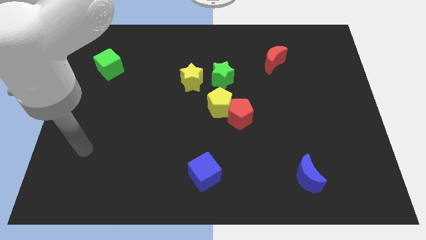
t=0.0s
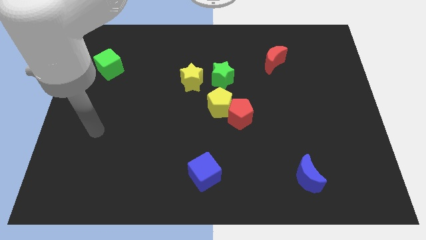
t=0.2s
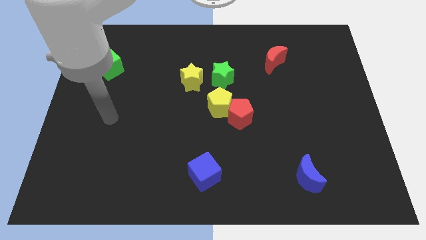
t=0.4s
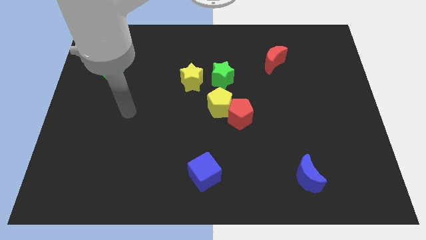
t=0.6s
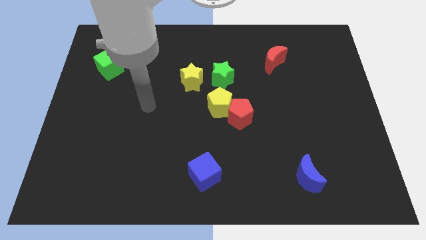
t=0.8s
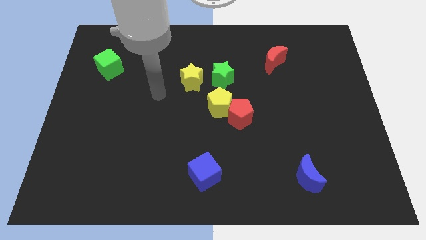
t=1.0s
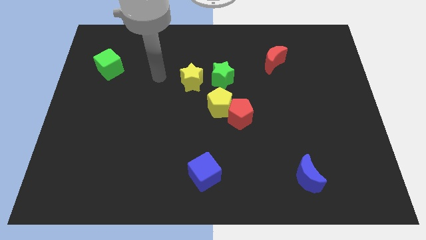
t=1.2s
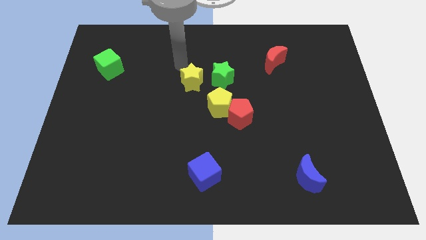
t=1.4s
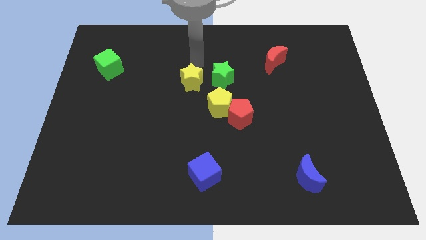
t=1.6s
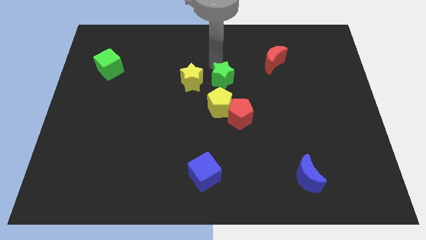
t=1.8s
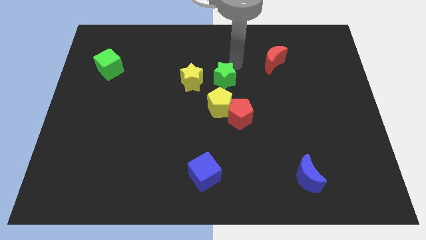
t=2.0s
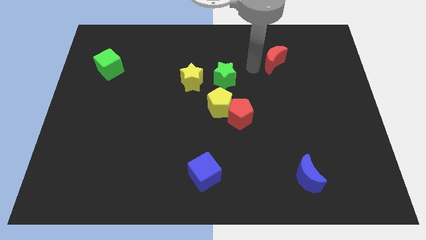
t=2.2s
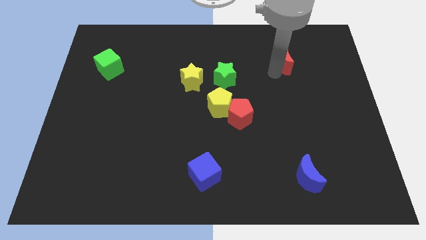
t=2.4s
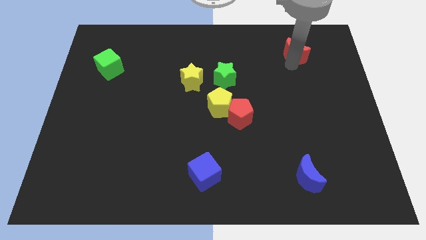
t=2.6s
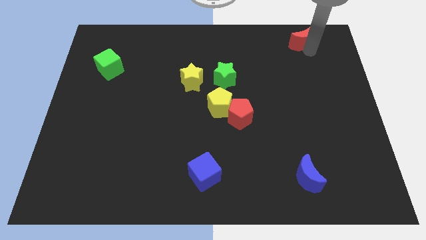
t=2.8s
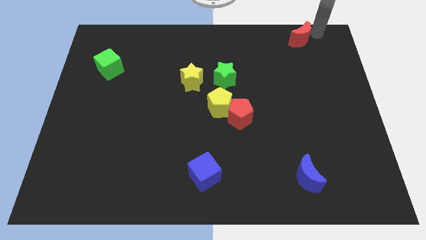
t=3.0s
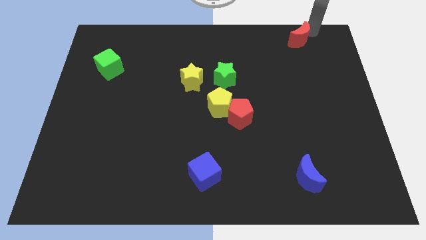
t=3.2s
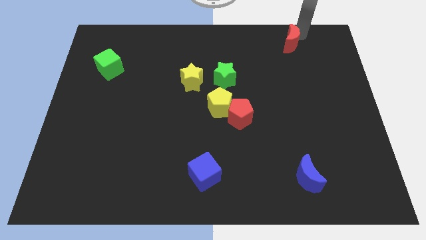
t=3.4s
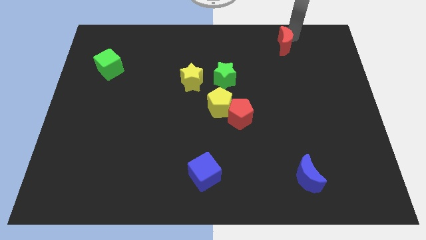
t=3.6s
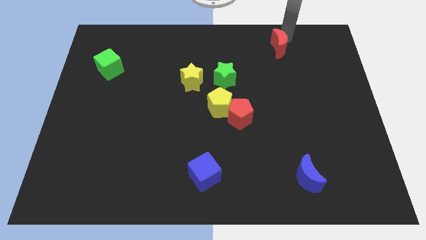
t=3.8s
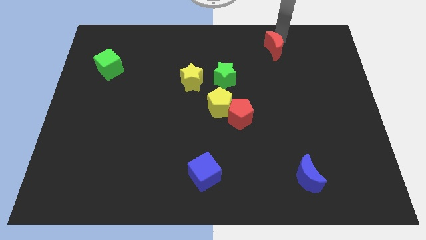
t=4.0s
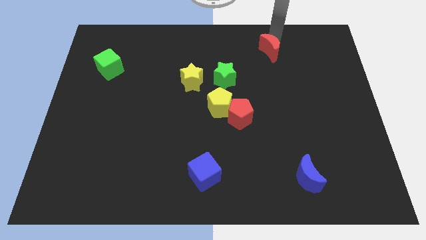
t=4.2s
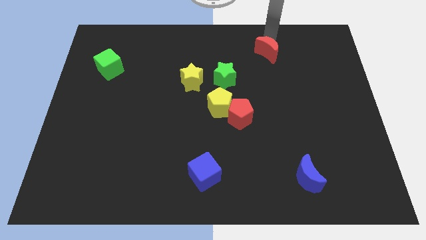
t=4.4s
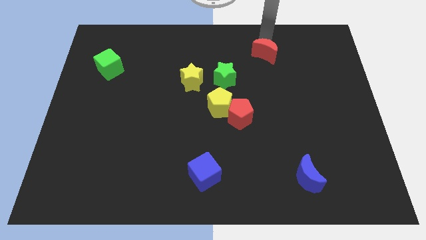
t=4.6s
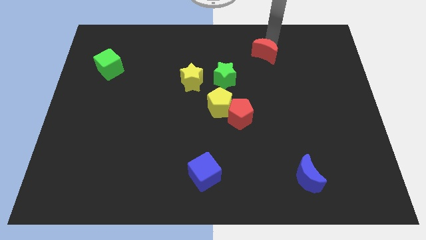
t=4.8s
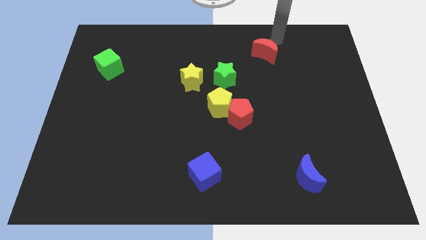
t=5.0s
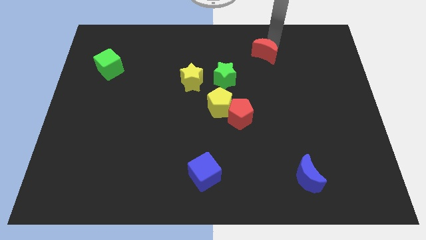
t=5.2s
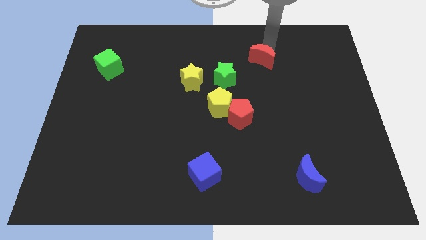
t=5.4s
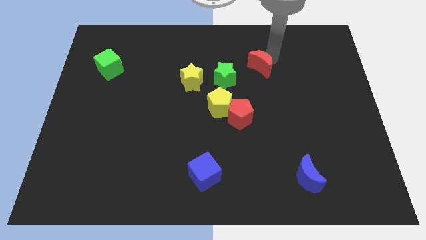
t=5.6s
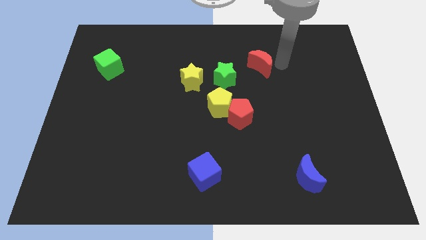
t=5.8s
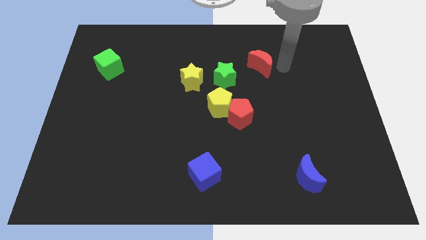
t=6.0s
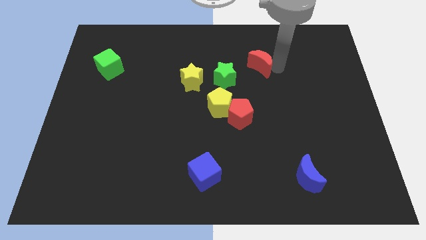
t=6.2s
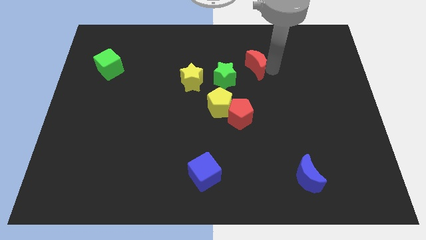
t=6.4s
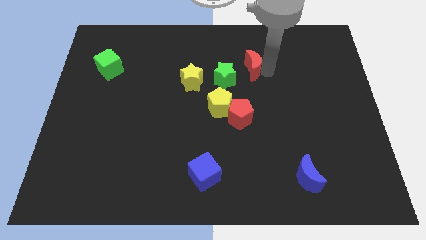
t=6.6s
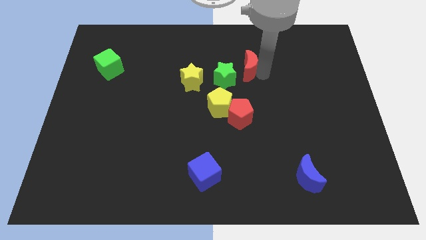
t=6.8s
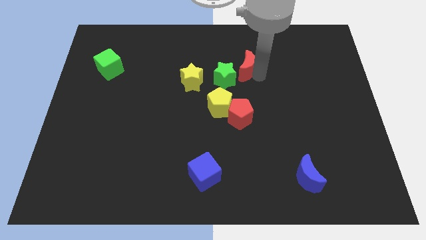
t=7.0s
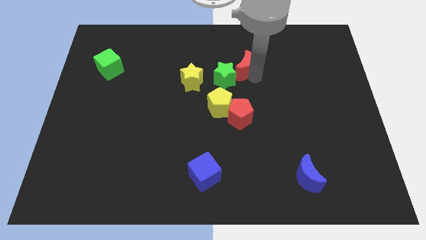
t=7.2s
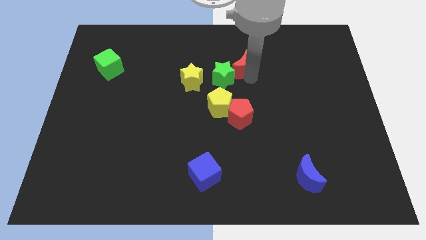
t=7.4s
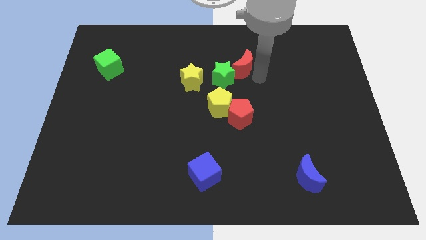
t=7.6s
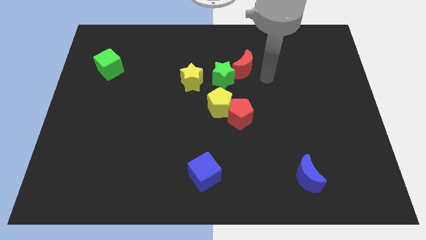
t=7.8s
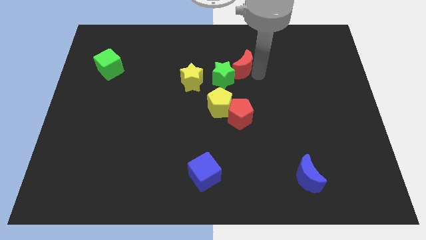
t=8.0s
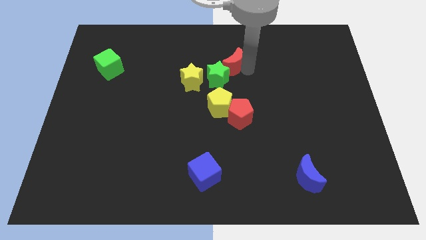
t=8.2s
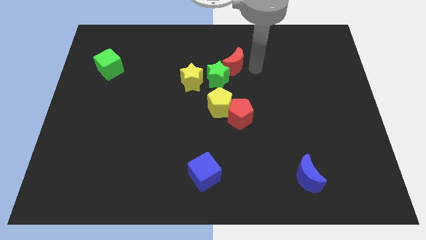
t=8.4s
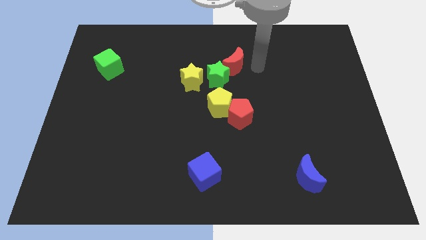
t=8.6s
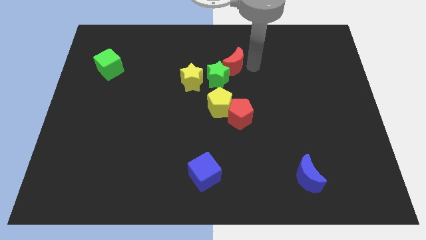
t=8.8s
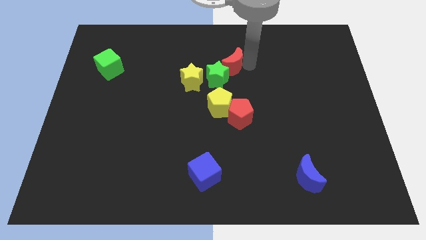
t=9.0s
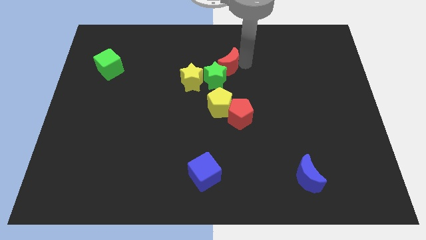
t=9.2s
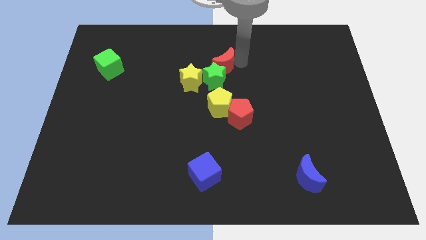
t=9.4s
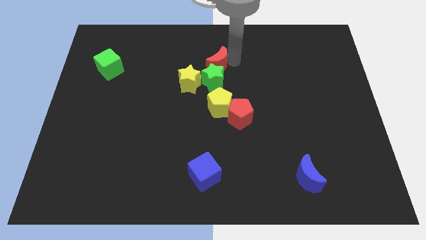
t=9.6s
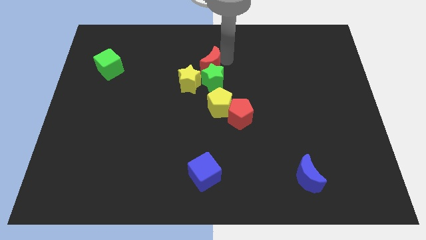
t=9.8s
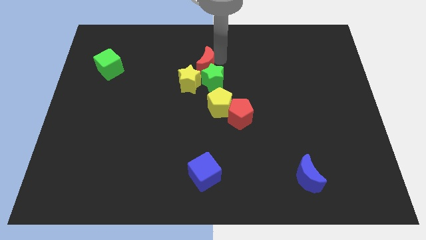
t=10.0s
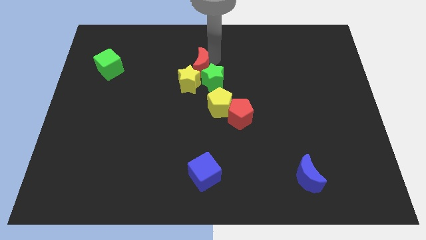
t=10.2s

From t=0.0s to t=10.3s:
move the red moon to the yellow star

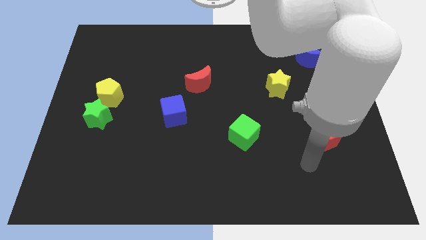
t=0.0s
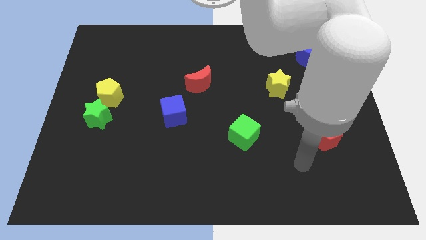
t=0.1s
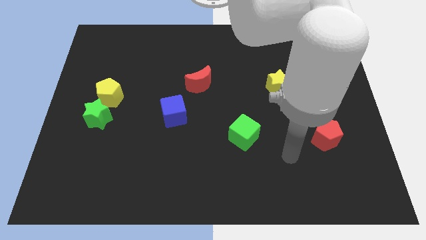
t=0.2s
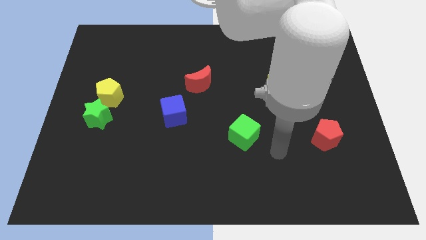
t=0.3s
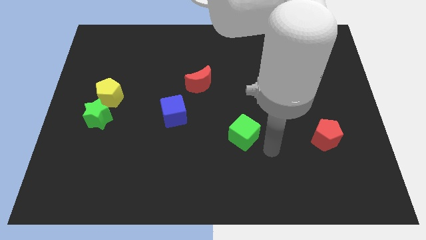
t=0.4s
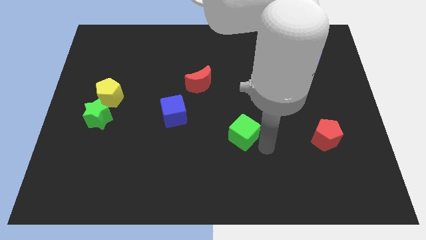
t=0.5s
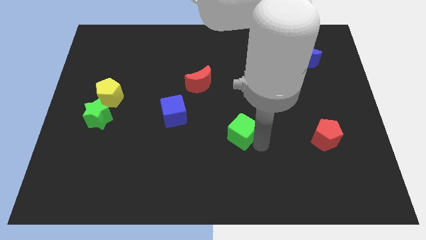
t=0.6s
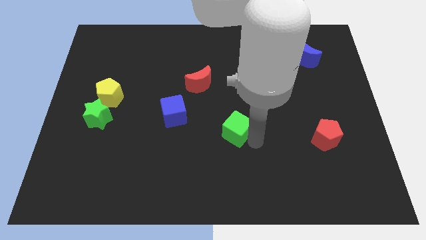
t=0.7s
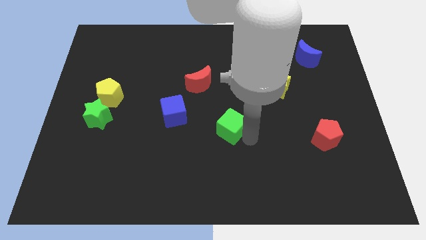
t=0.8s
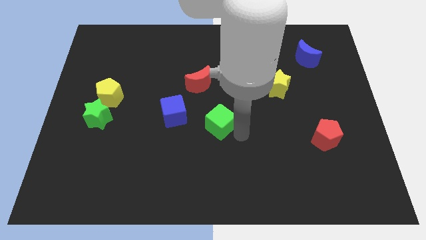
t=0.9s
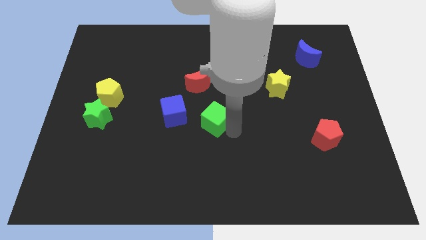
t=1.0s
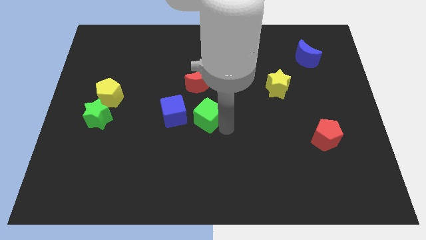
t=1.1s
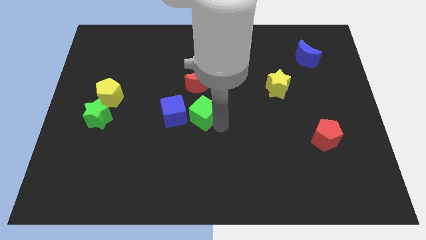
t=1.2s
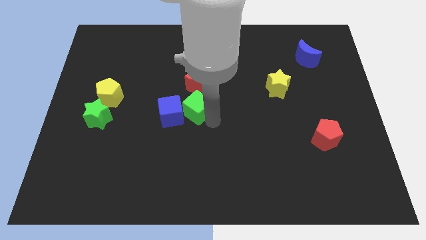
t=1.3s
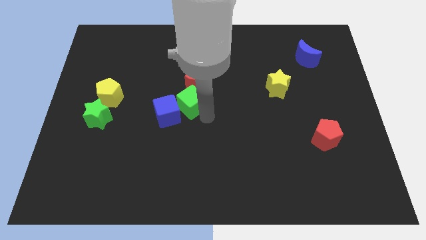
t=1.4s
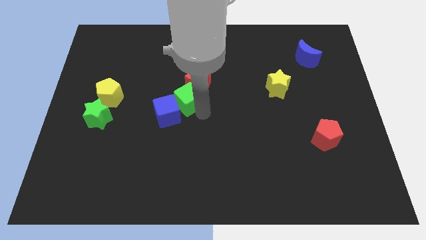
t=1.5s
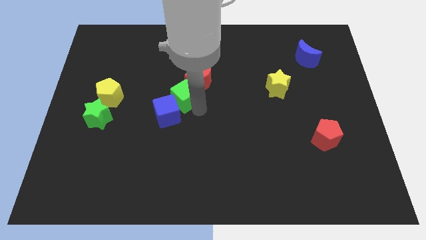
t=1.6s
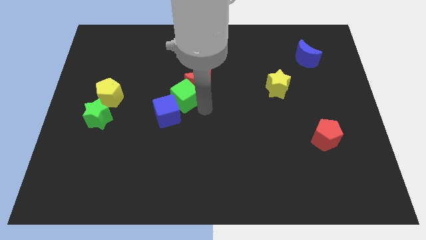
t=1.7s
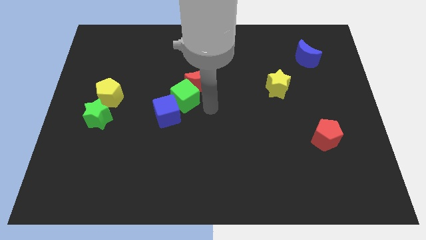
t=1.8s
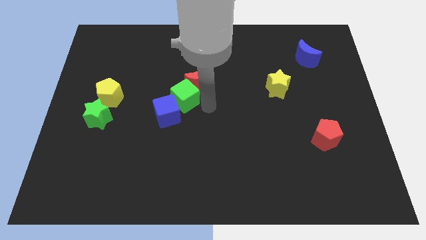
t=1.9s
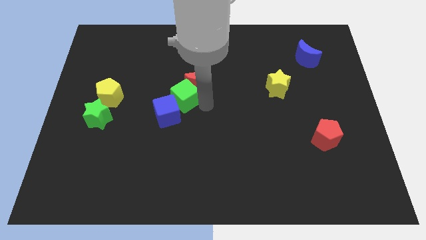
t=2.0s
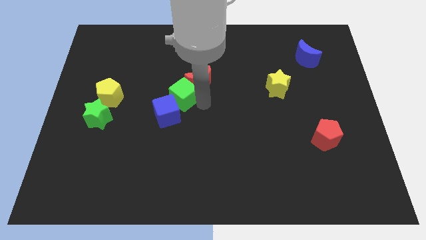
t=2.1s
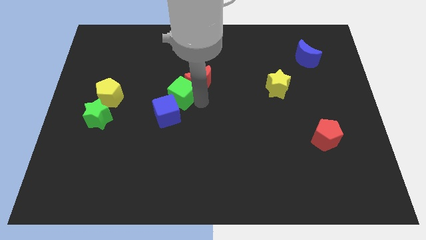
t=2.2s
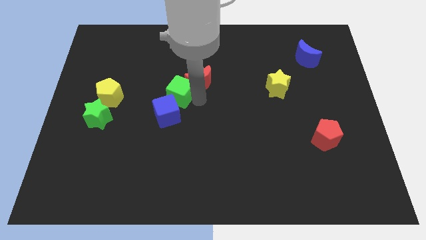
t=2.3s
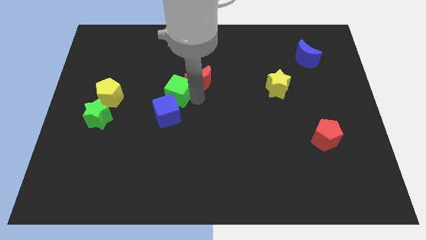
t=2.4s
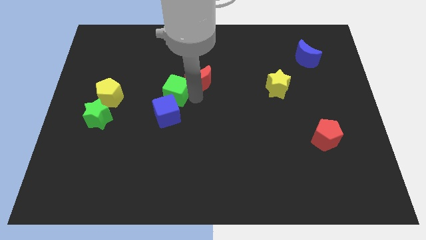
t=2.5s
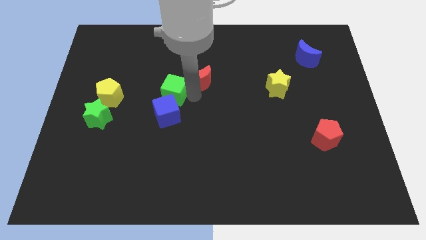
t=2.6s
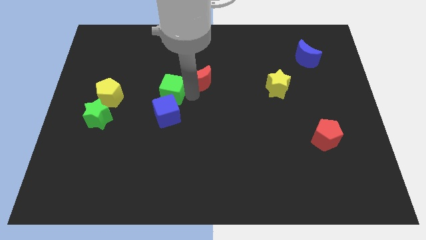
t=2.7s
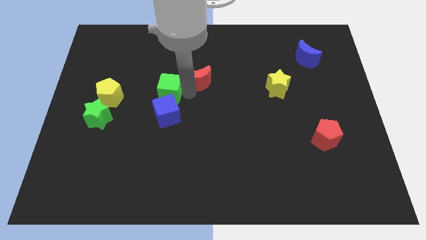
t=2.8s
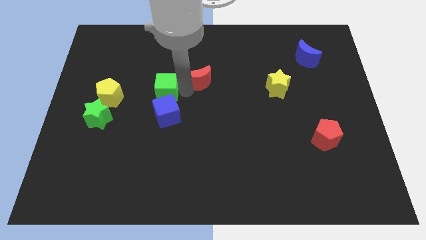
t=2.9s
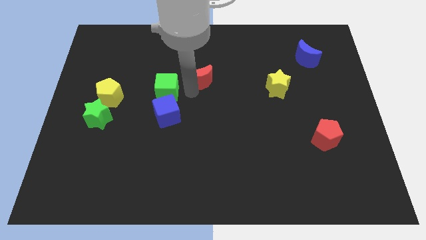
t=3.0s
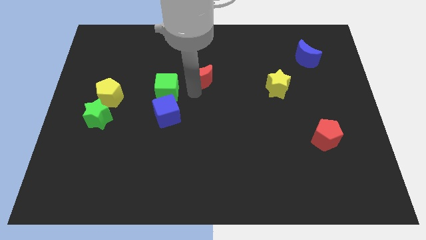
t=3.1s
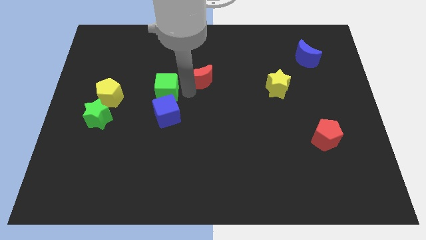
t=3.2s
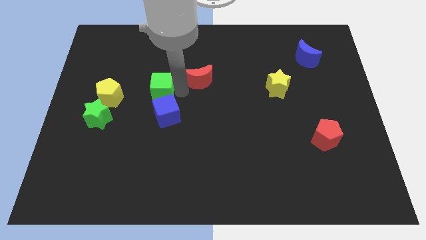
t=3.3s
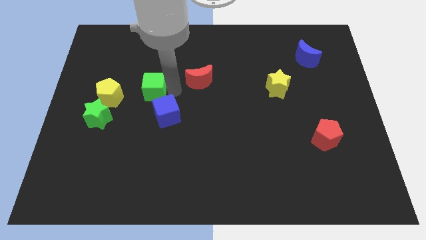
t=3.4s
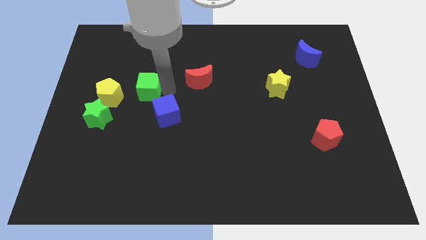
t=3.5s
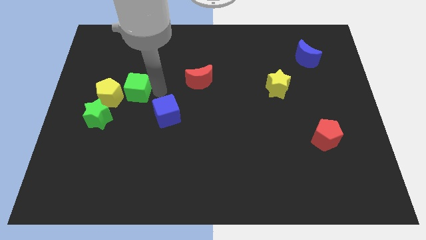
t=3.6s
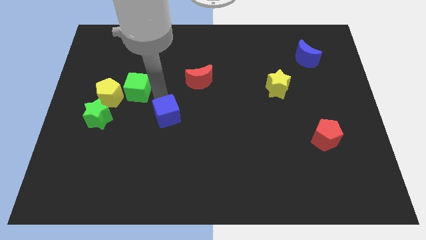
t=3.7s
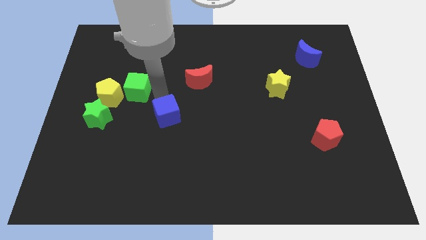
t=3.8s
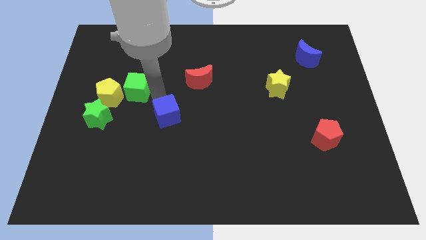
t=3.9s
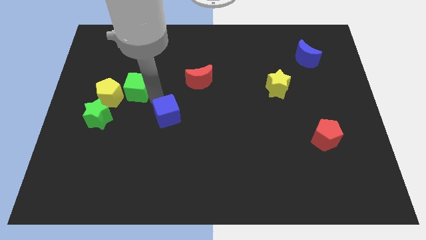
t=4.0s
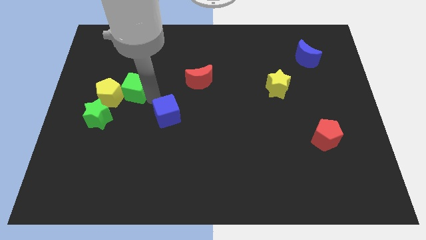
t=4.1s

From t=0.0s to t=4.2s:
push the green cube next to the yellow pentagon
